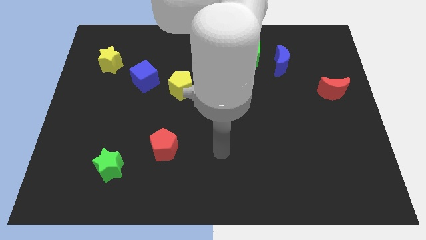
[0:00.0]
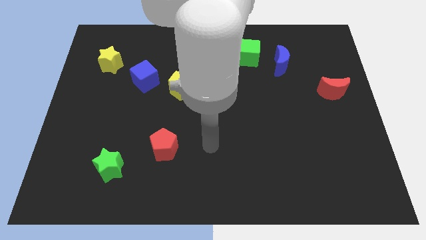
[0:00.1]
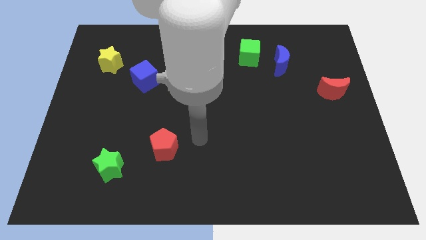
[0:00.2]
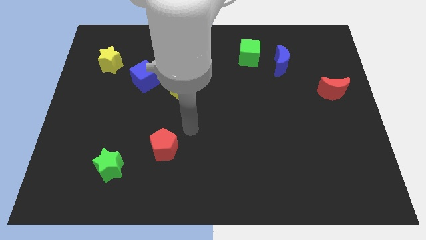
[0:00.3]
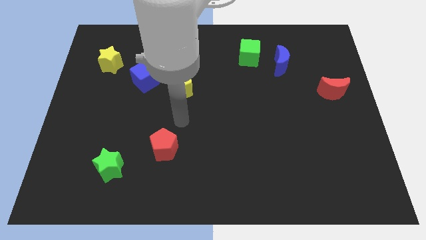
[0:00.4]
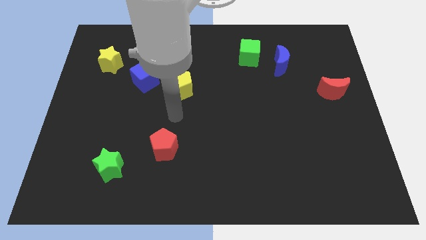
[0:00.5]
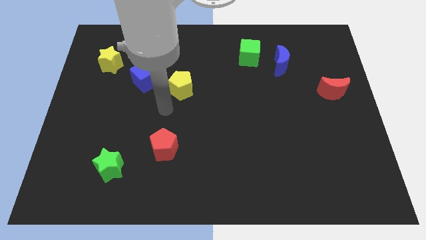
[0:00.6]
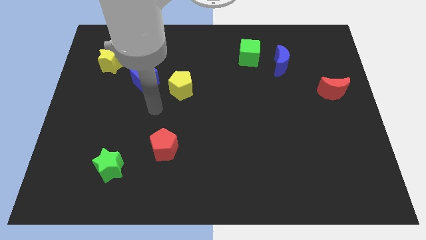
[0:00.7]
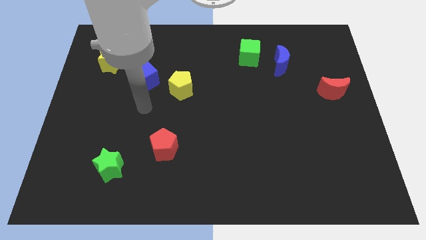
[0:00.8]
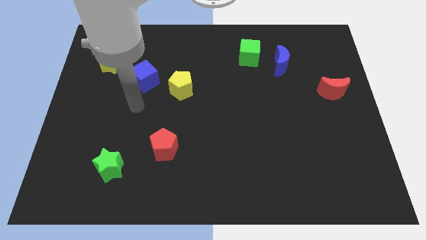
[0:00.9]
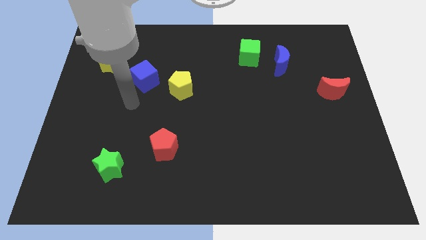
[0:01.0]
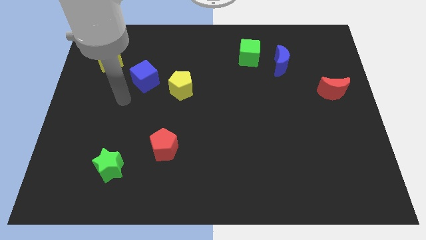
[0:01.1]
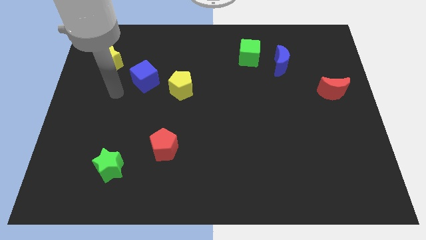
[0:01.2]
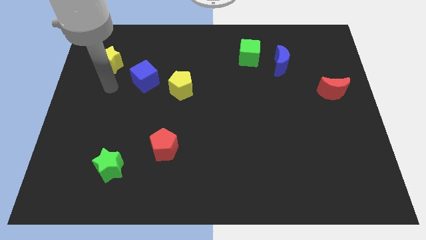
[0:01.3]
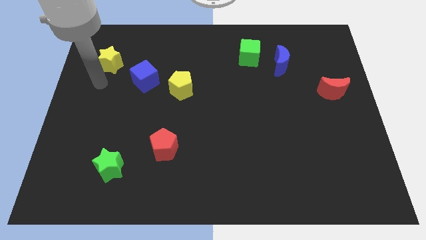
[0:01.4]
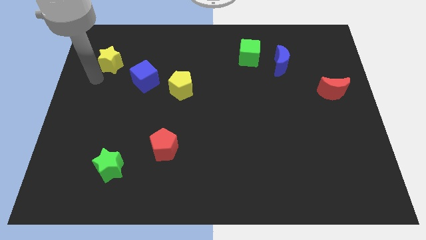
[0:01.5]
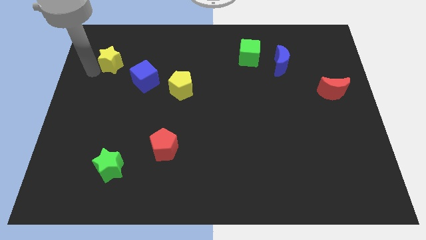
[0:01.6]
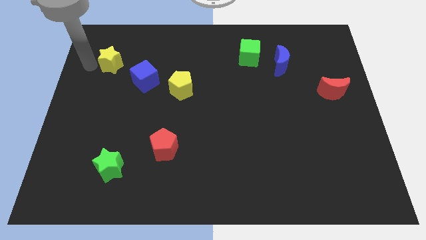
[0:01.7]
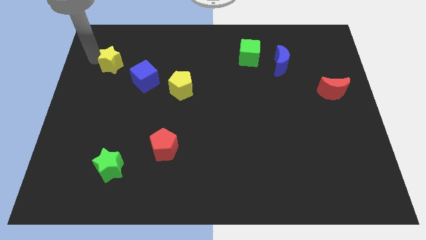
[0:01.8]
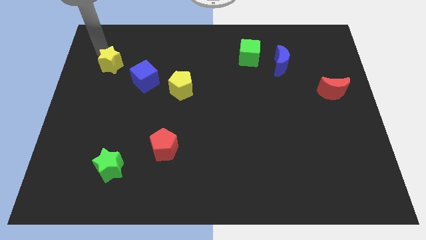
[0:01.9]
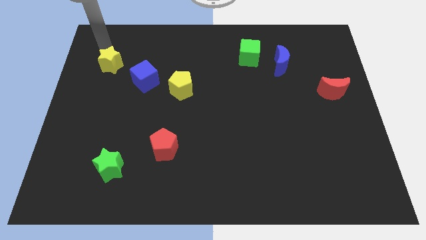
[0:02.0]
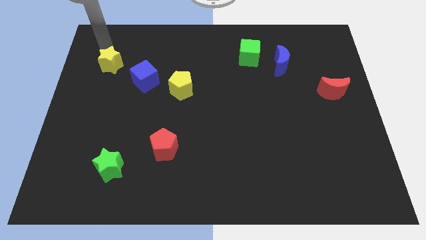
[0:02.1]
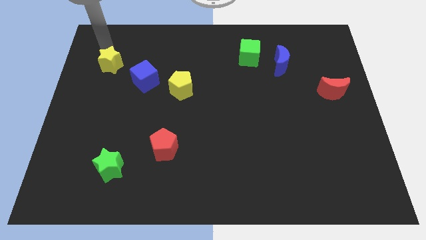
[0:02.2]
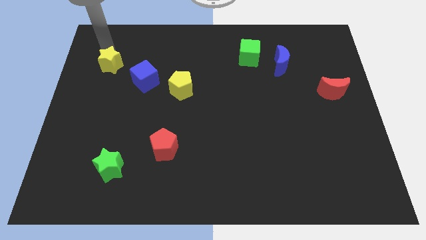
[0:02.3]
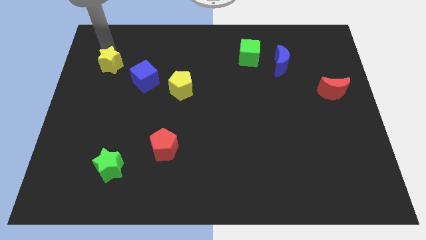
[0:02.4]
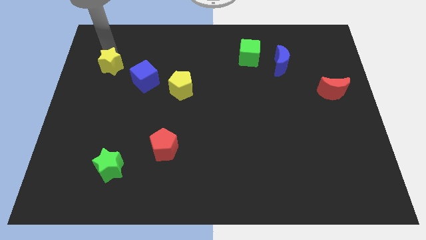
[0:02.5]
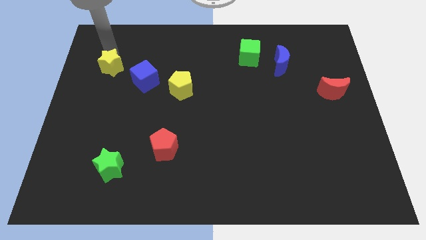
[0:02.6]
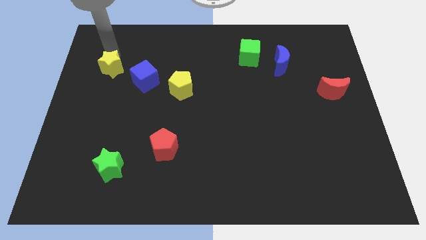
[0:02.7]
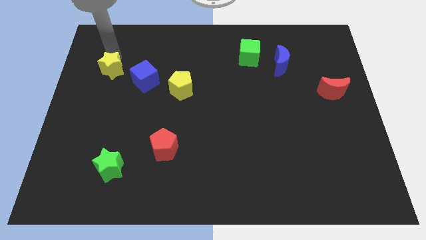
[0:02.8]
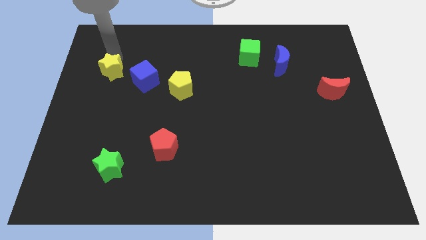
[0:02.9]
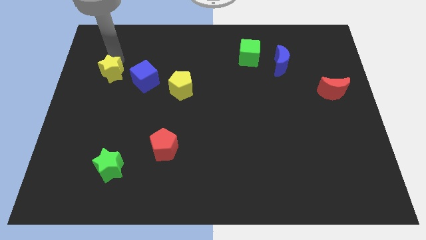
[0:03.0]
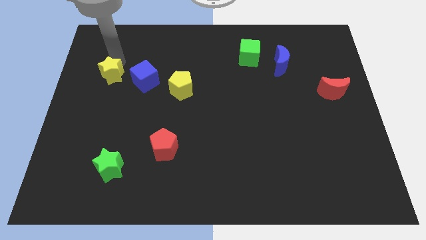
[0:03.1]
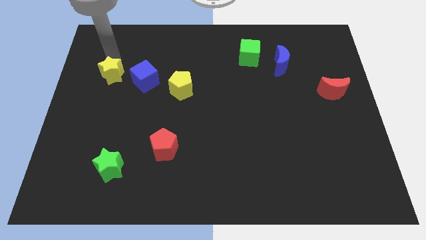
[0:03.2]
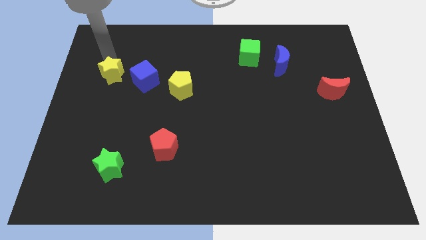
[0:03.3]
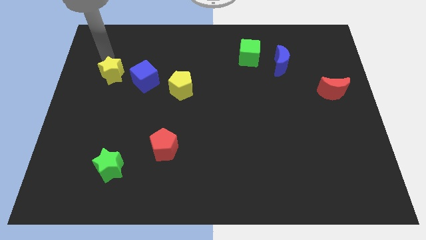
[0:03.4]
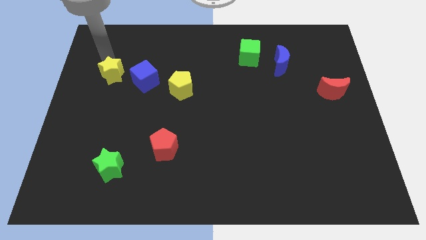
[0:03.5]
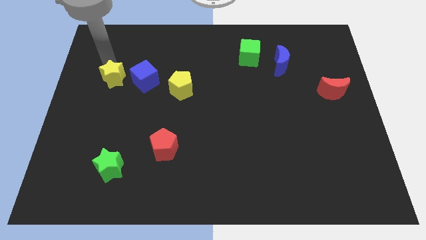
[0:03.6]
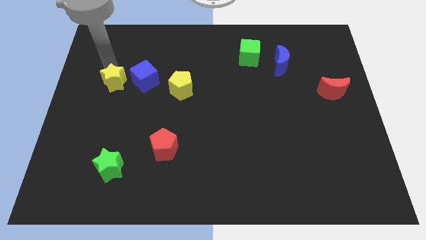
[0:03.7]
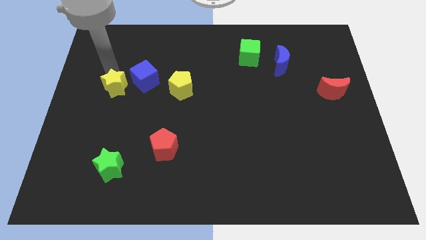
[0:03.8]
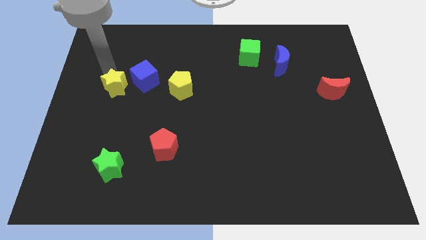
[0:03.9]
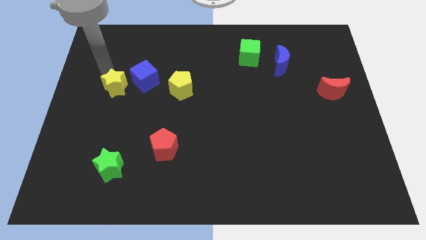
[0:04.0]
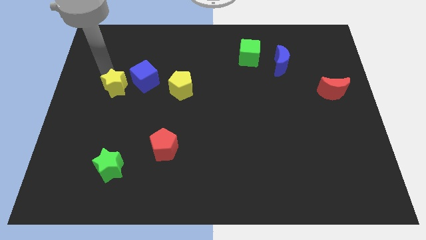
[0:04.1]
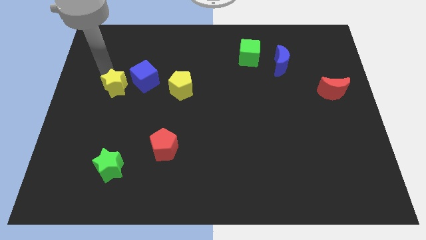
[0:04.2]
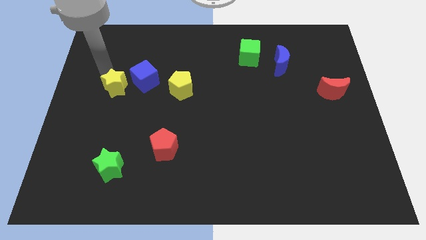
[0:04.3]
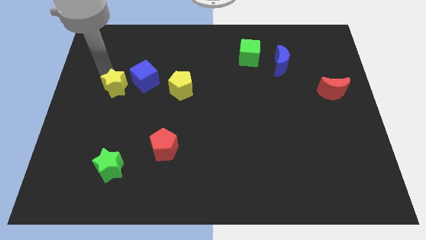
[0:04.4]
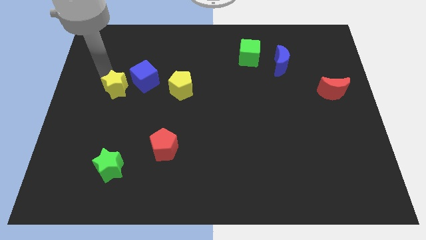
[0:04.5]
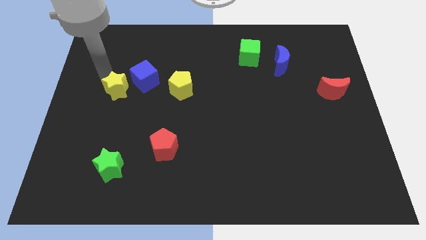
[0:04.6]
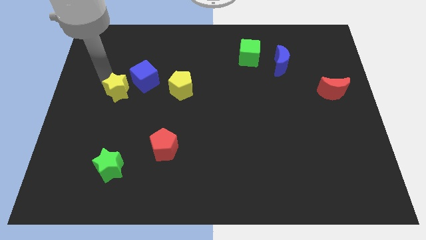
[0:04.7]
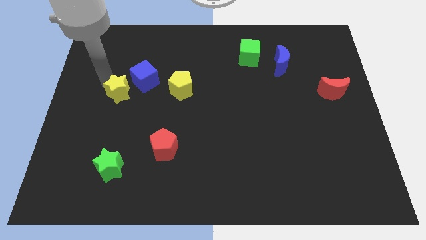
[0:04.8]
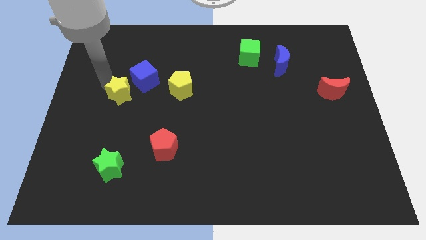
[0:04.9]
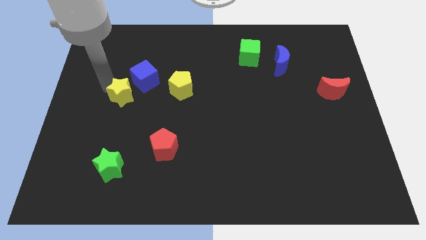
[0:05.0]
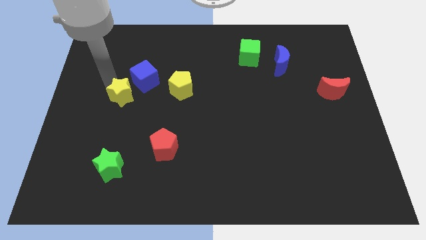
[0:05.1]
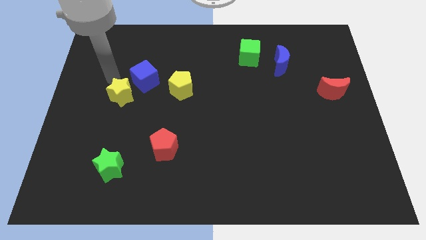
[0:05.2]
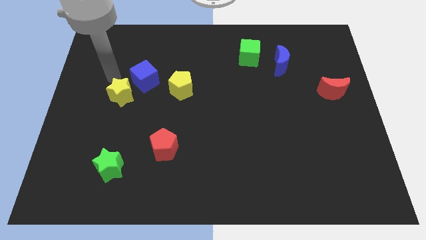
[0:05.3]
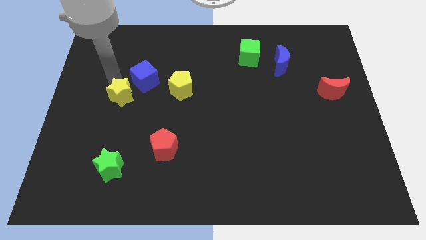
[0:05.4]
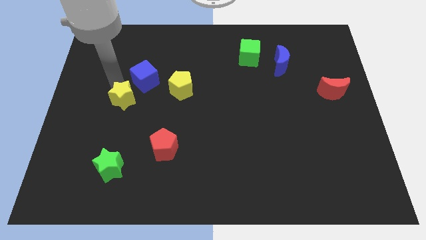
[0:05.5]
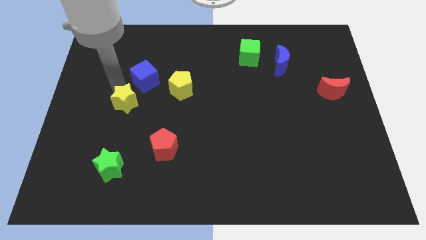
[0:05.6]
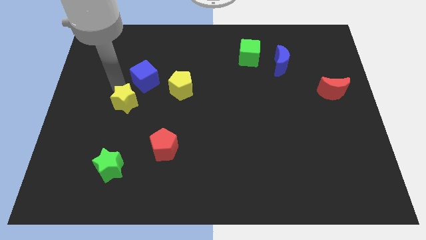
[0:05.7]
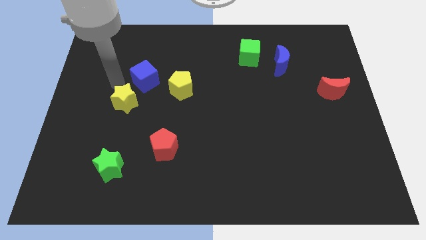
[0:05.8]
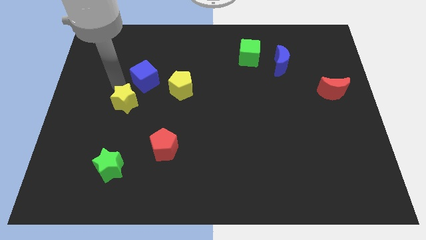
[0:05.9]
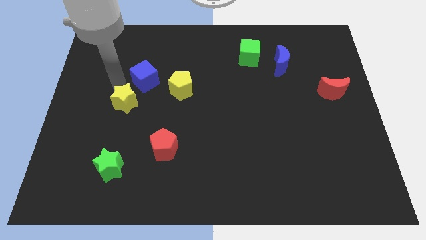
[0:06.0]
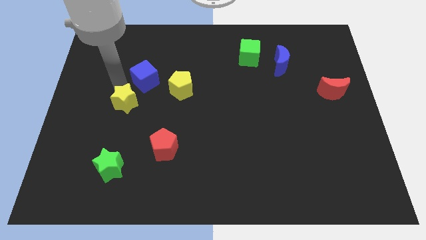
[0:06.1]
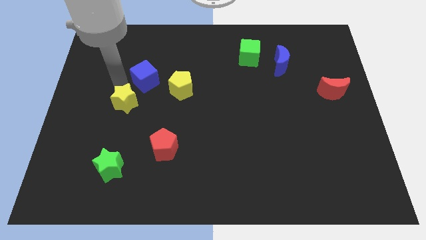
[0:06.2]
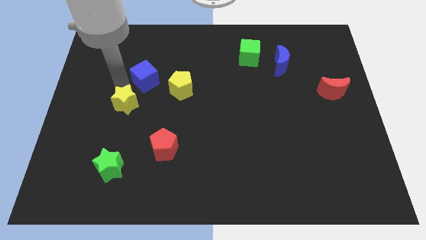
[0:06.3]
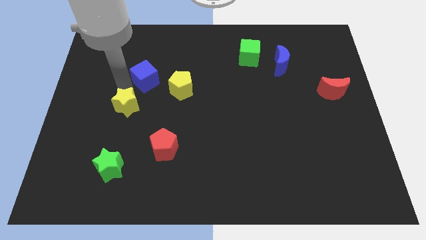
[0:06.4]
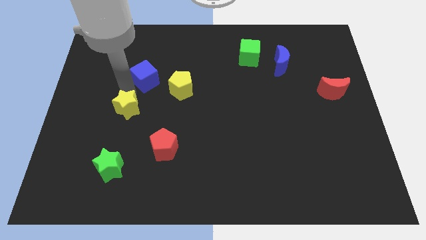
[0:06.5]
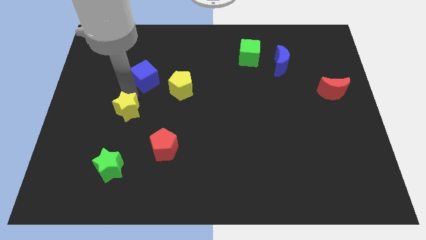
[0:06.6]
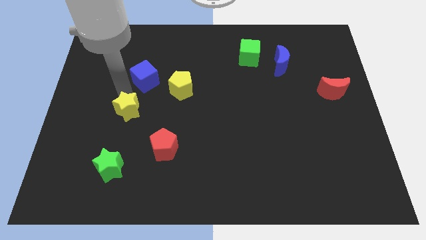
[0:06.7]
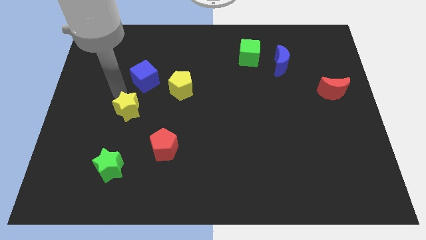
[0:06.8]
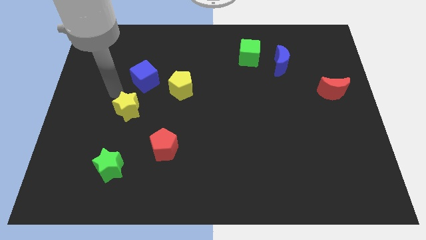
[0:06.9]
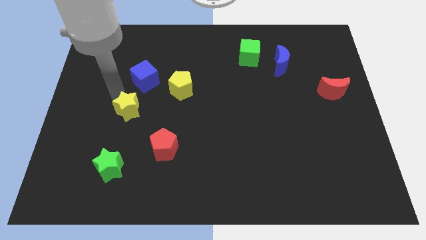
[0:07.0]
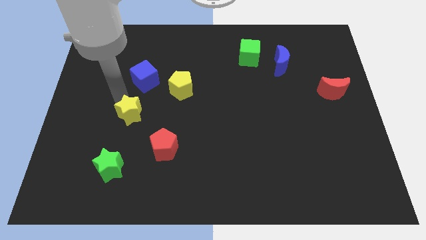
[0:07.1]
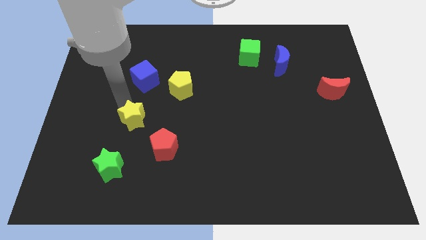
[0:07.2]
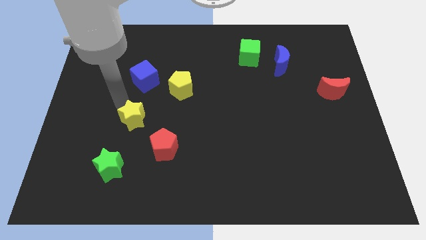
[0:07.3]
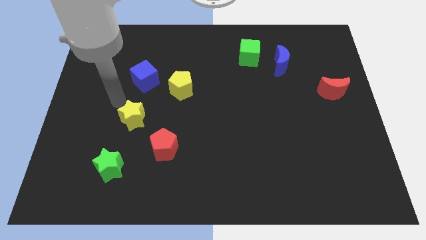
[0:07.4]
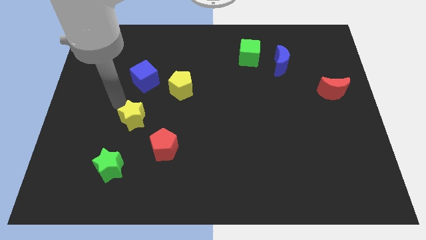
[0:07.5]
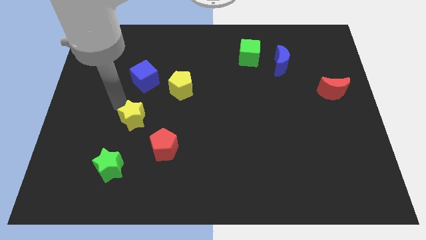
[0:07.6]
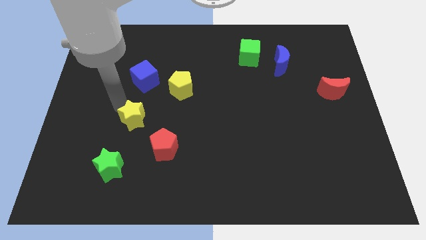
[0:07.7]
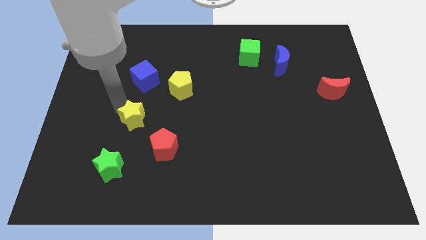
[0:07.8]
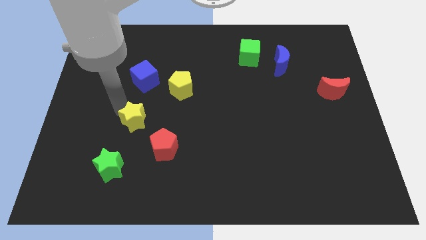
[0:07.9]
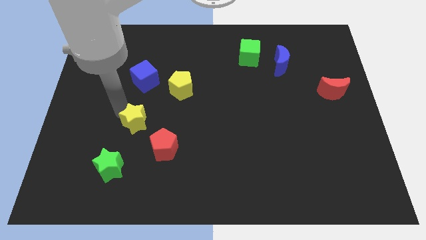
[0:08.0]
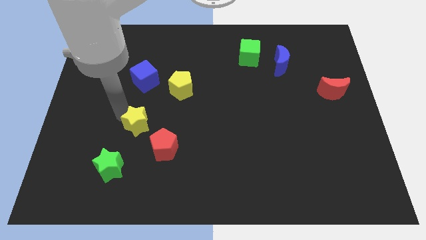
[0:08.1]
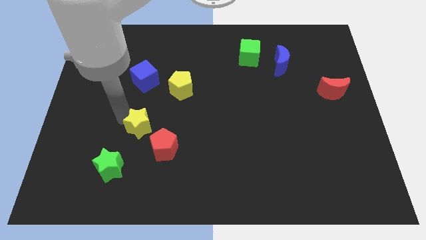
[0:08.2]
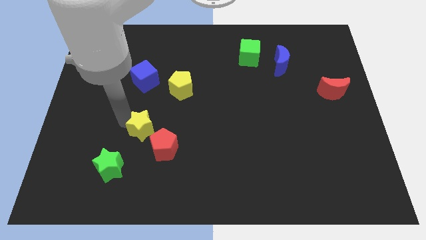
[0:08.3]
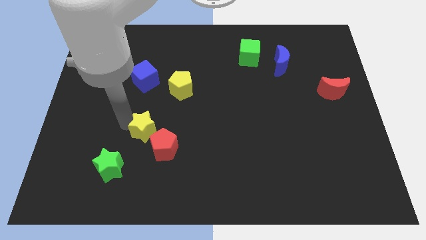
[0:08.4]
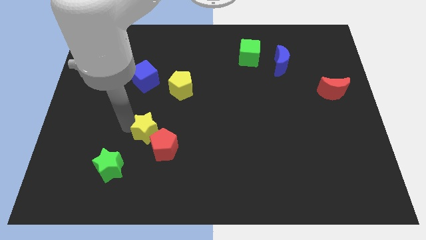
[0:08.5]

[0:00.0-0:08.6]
move the yellow star close to the red pentagon
